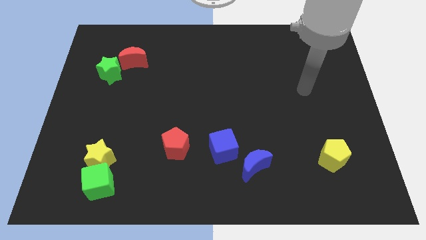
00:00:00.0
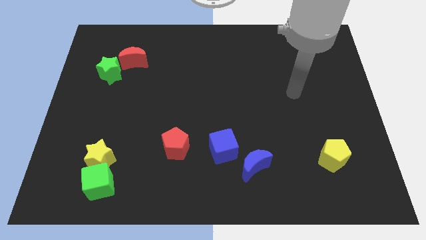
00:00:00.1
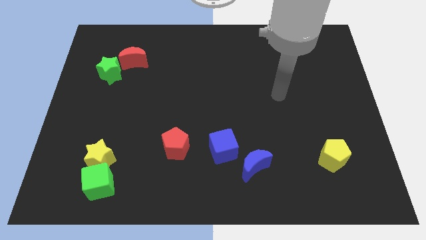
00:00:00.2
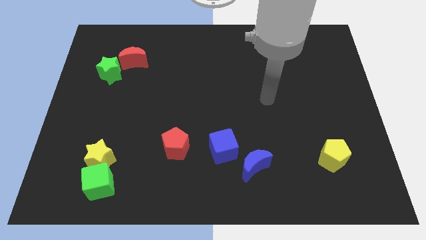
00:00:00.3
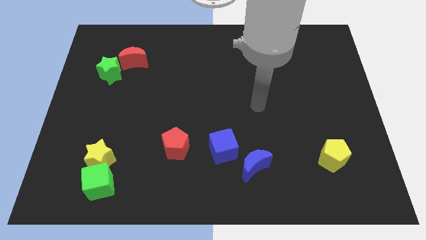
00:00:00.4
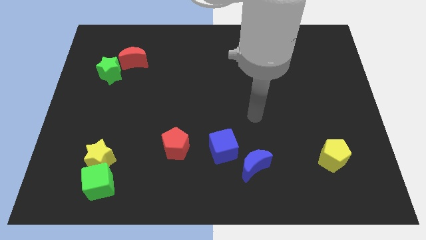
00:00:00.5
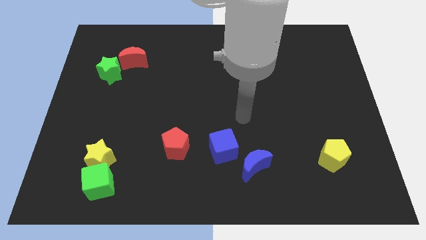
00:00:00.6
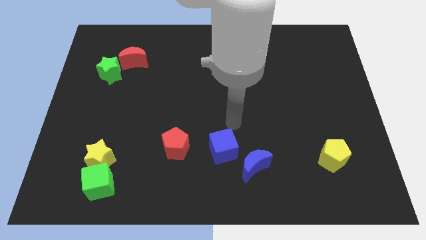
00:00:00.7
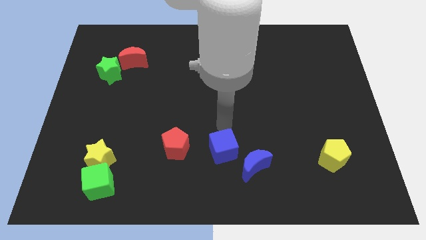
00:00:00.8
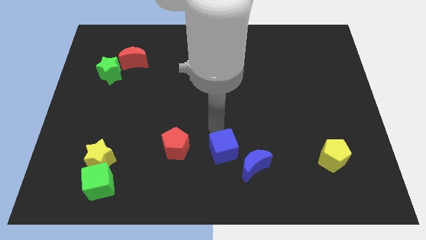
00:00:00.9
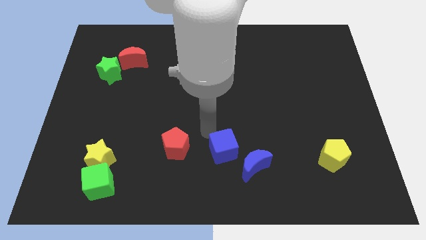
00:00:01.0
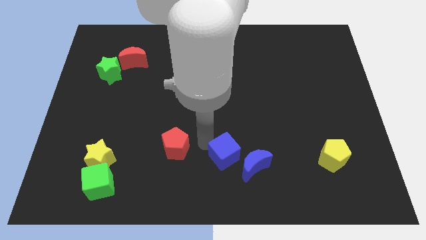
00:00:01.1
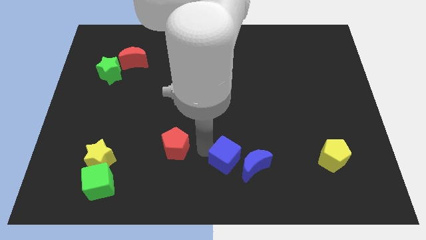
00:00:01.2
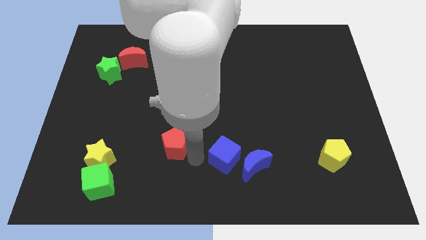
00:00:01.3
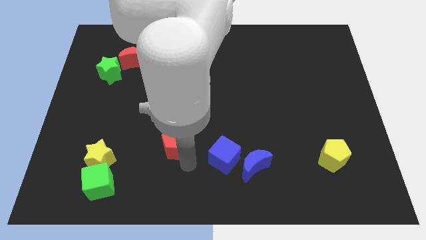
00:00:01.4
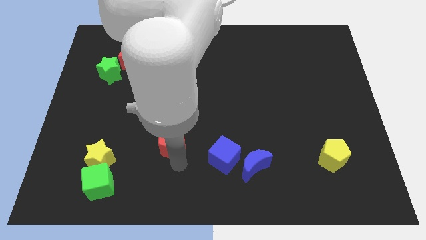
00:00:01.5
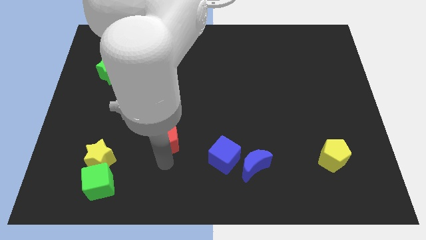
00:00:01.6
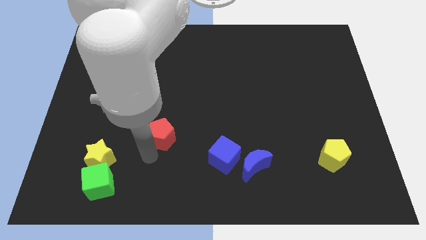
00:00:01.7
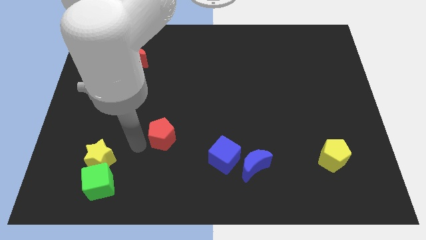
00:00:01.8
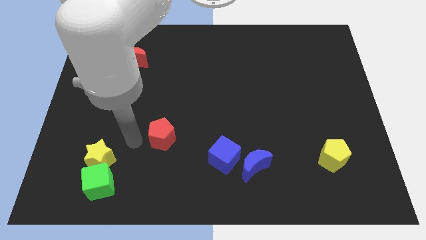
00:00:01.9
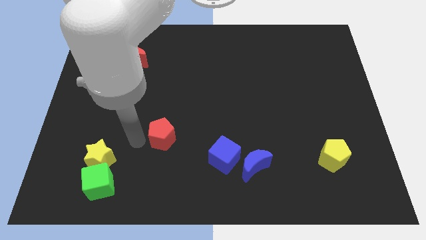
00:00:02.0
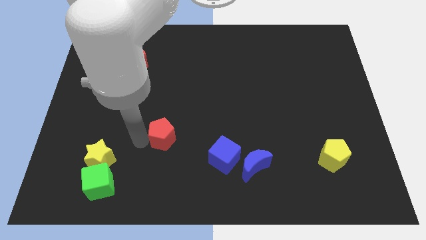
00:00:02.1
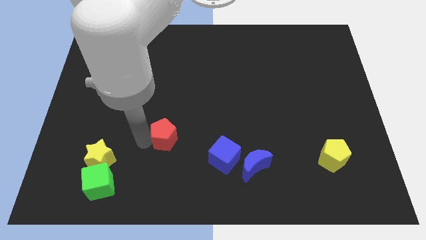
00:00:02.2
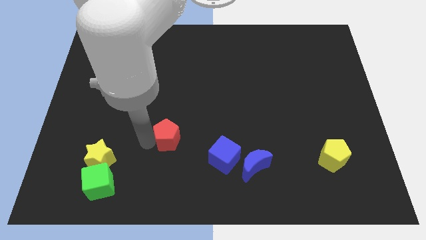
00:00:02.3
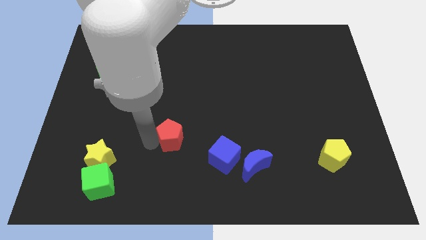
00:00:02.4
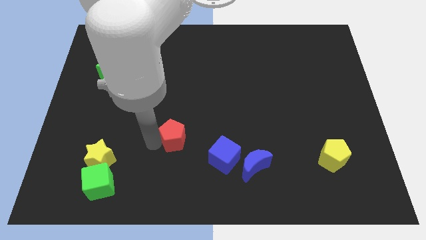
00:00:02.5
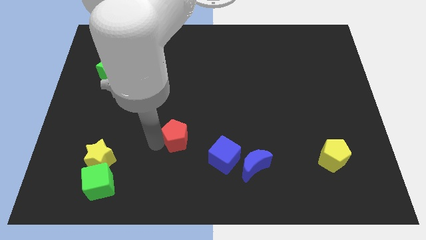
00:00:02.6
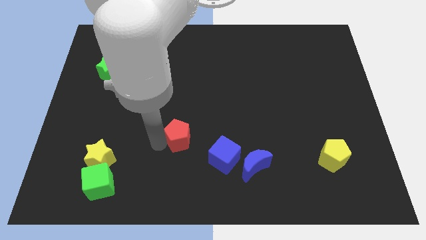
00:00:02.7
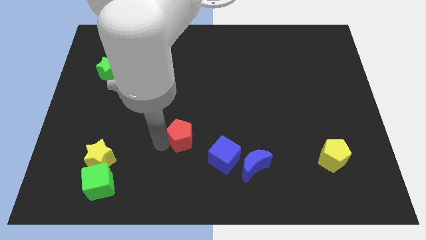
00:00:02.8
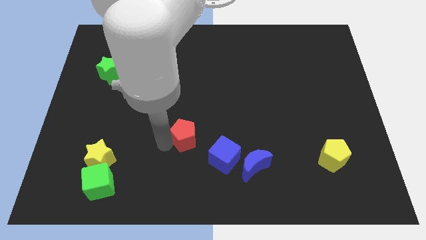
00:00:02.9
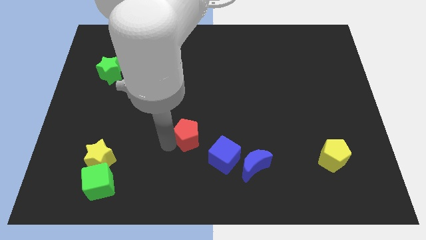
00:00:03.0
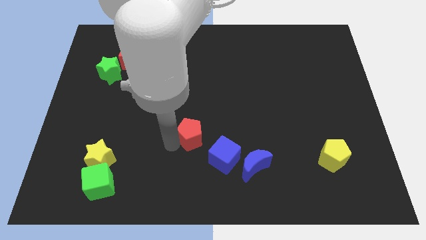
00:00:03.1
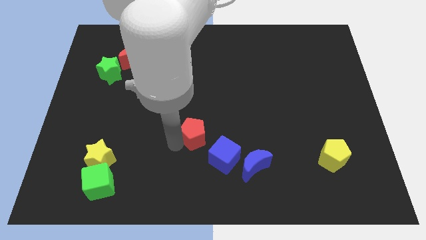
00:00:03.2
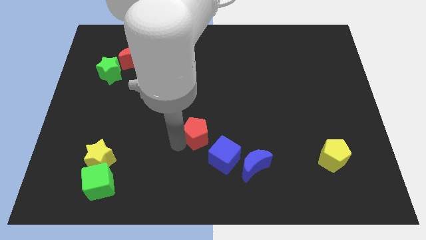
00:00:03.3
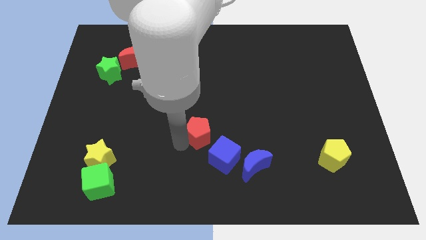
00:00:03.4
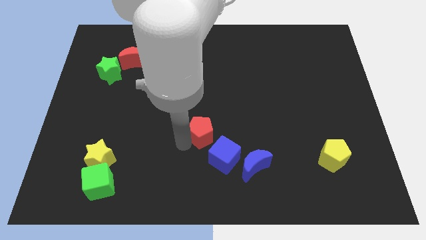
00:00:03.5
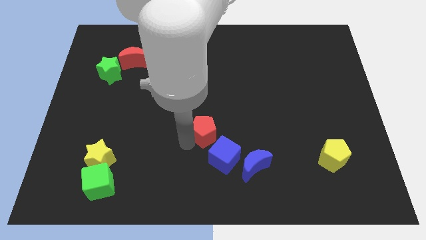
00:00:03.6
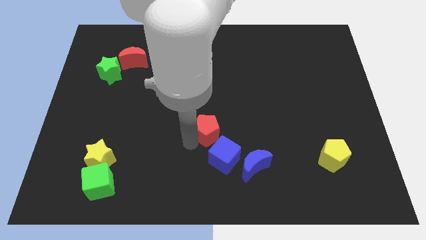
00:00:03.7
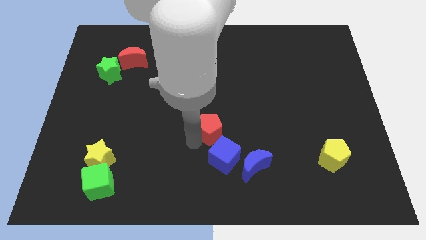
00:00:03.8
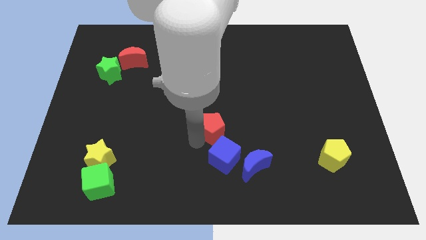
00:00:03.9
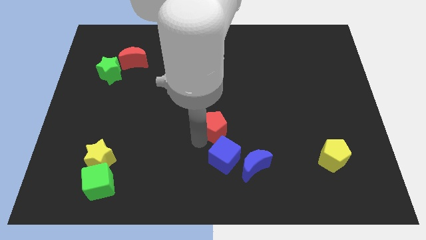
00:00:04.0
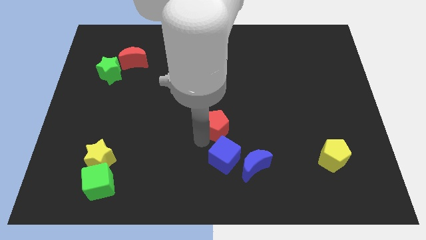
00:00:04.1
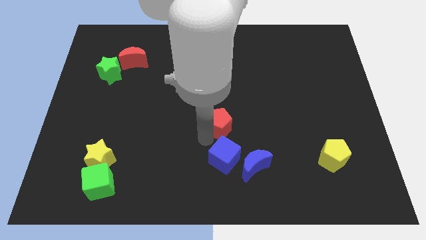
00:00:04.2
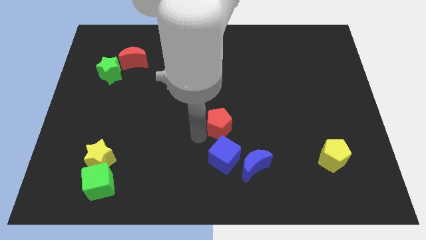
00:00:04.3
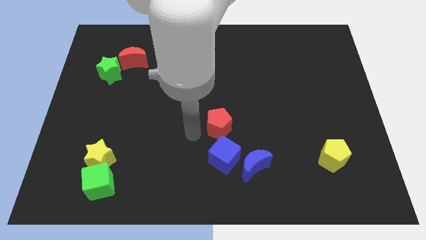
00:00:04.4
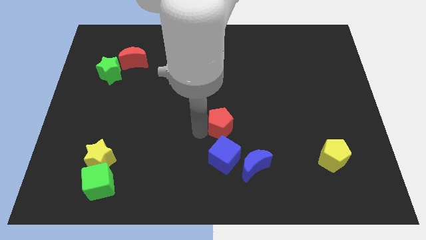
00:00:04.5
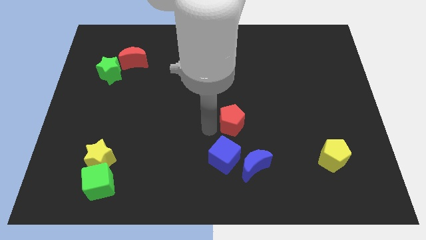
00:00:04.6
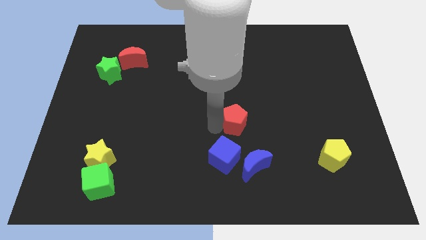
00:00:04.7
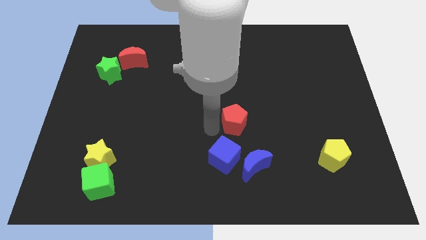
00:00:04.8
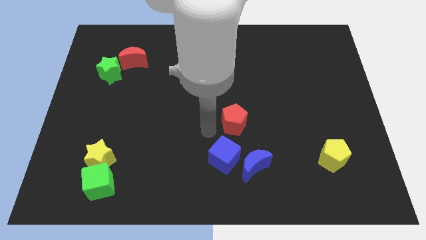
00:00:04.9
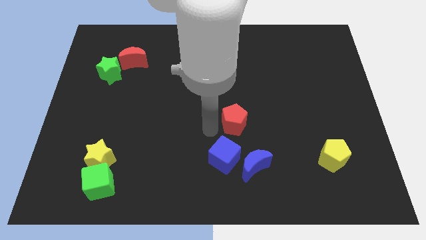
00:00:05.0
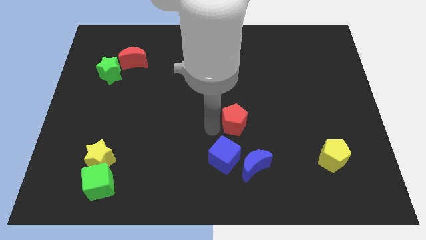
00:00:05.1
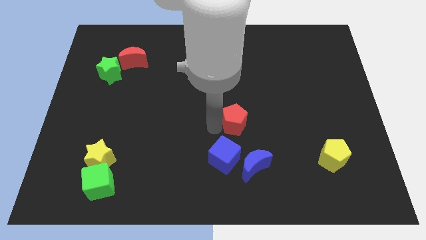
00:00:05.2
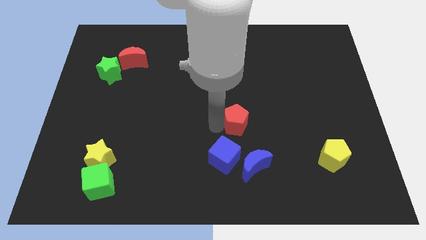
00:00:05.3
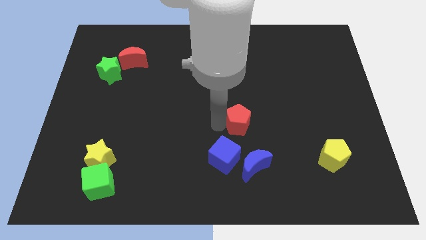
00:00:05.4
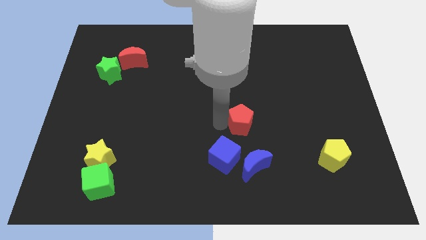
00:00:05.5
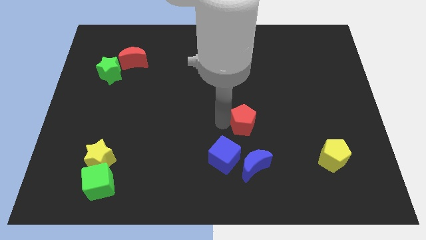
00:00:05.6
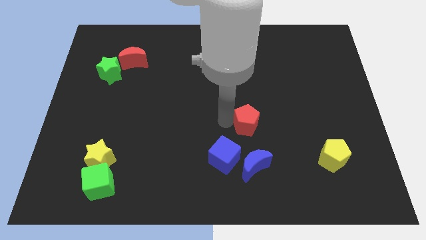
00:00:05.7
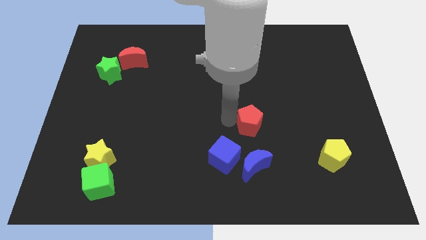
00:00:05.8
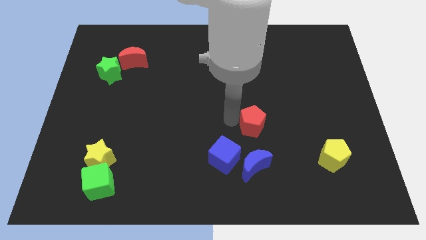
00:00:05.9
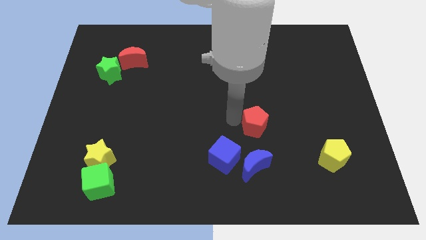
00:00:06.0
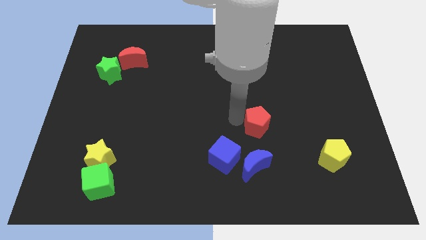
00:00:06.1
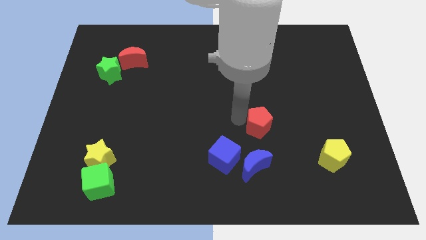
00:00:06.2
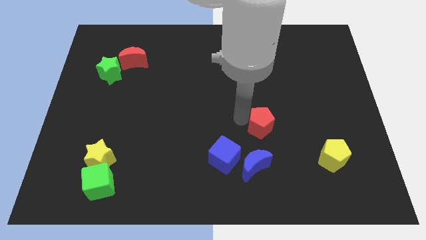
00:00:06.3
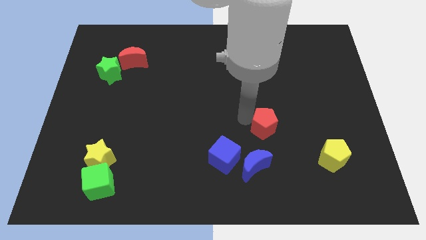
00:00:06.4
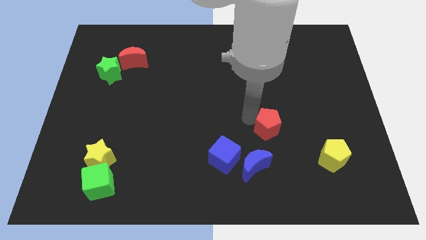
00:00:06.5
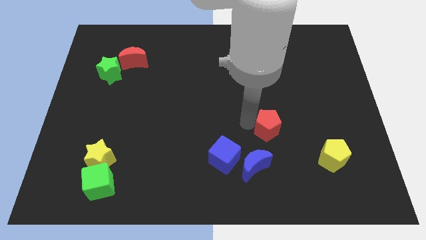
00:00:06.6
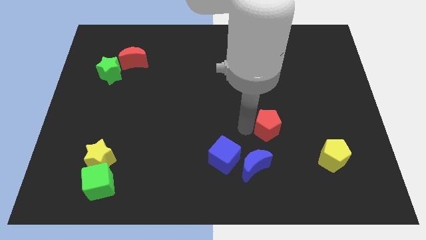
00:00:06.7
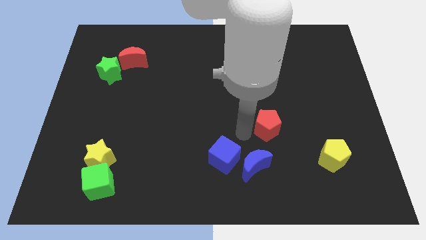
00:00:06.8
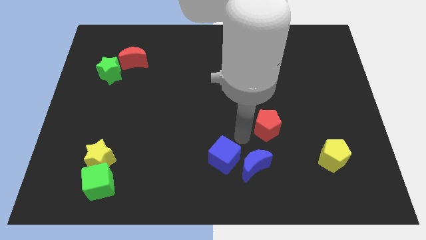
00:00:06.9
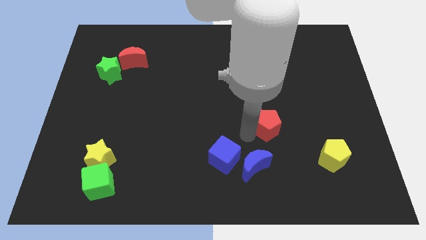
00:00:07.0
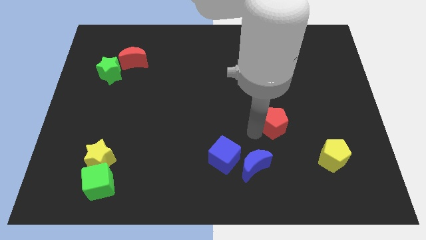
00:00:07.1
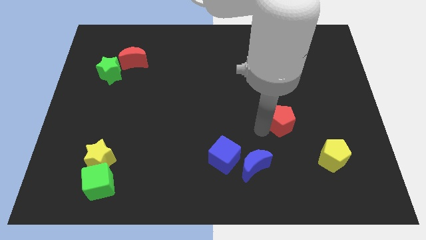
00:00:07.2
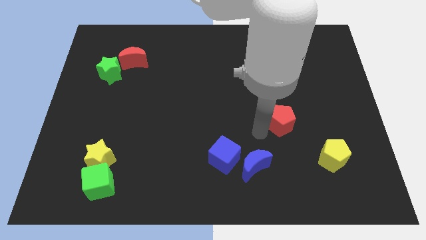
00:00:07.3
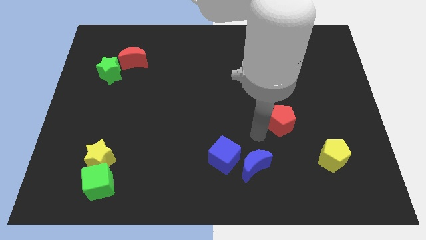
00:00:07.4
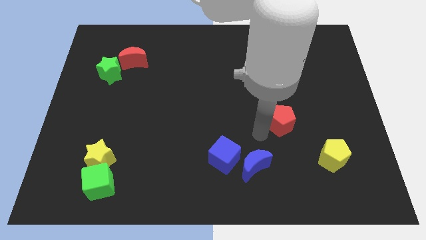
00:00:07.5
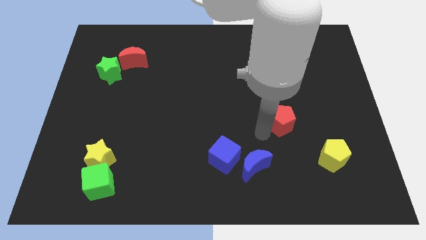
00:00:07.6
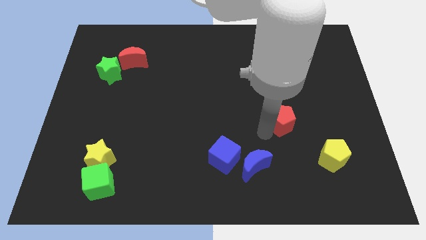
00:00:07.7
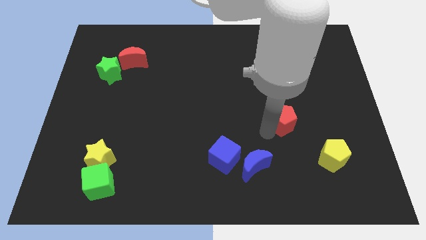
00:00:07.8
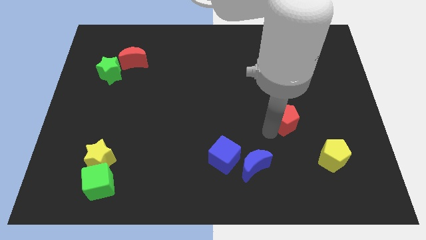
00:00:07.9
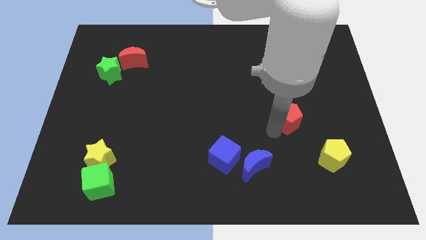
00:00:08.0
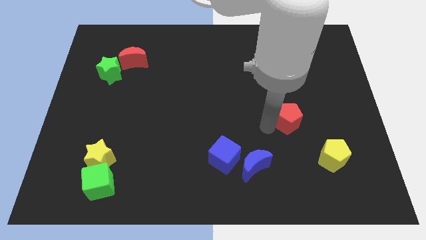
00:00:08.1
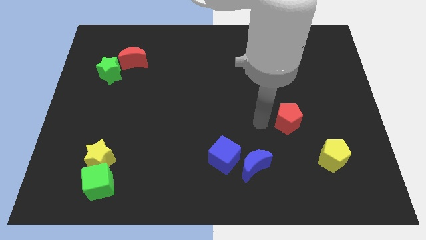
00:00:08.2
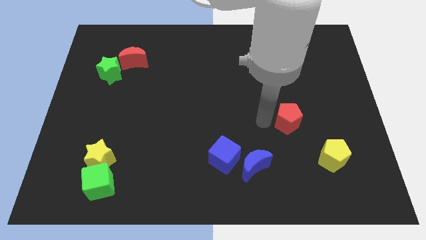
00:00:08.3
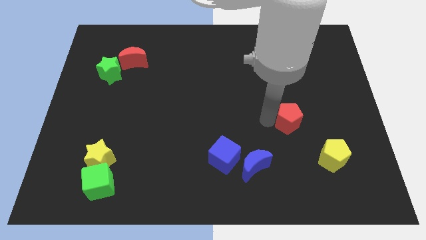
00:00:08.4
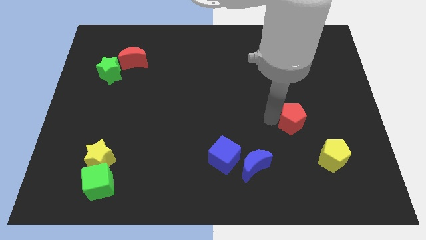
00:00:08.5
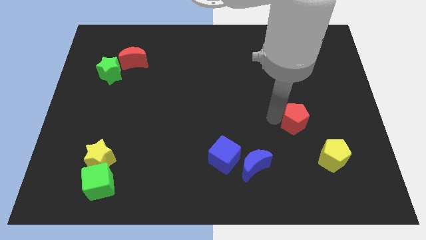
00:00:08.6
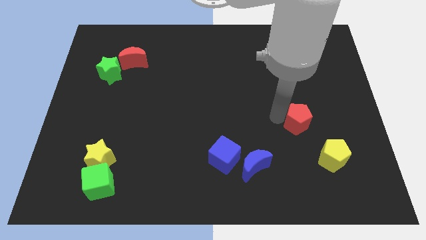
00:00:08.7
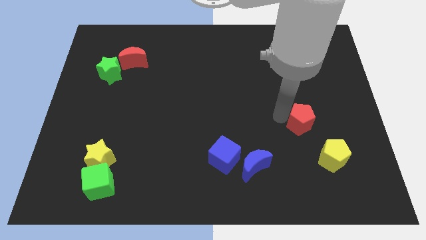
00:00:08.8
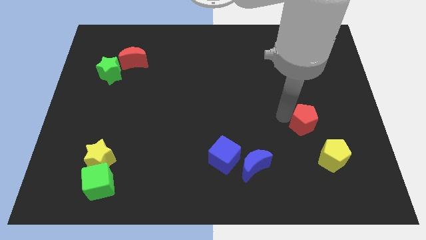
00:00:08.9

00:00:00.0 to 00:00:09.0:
slide the red pentagon to the top side of the yellow pentagon
